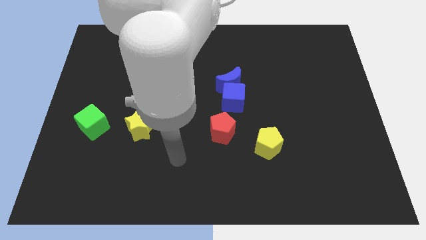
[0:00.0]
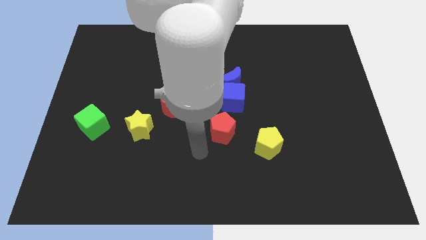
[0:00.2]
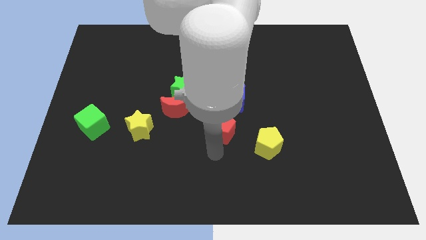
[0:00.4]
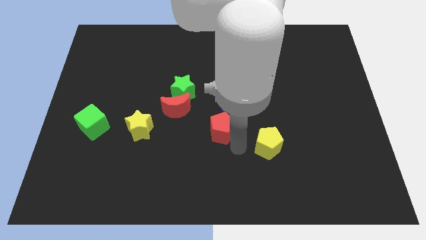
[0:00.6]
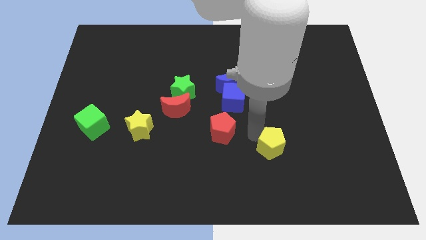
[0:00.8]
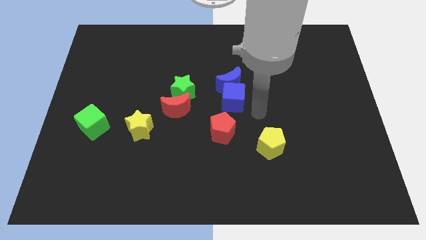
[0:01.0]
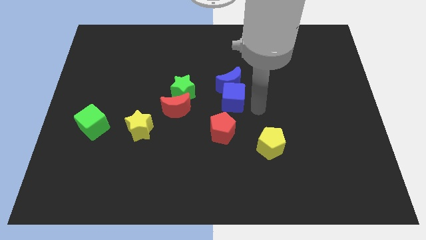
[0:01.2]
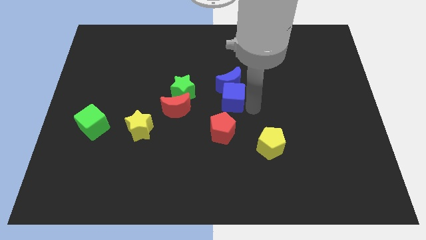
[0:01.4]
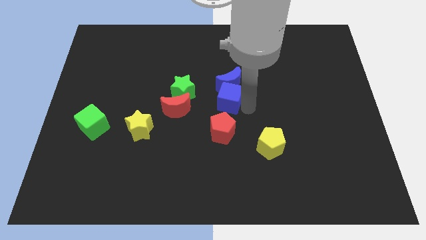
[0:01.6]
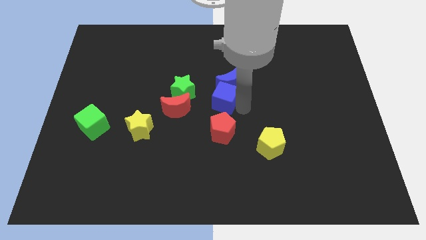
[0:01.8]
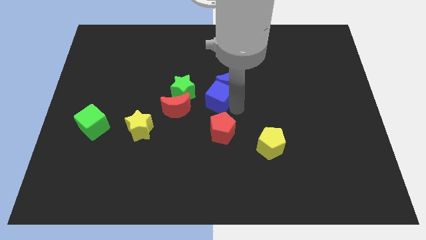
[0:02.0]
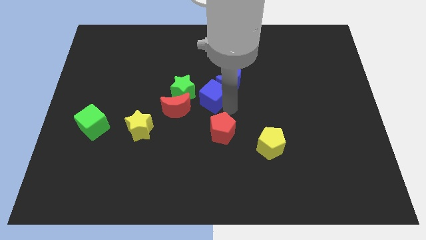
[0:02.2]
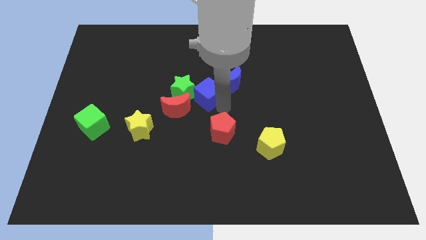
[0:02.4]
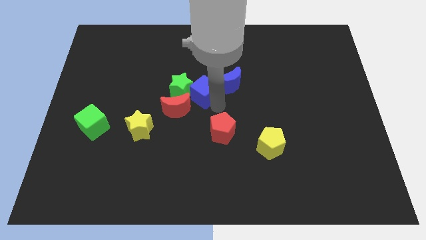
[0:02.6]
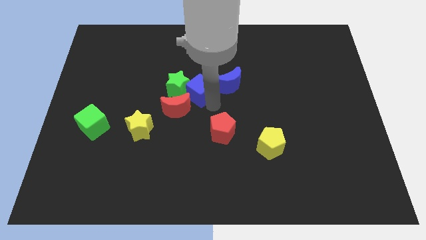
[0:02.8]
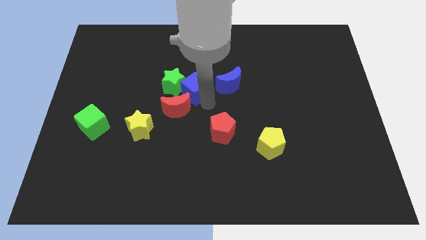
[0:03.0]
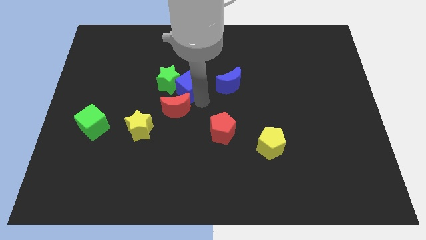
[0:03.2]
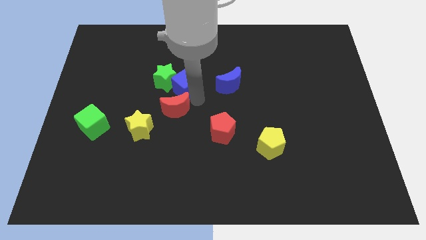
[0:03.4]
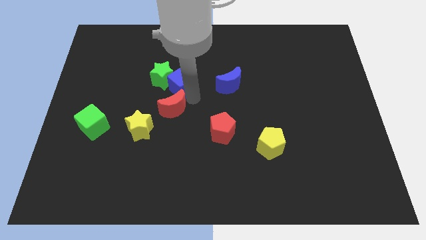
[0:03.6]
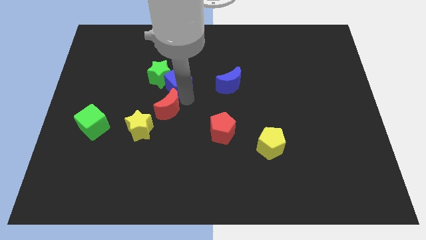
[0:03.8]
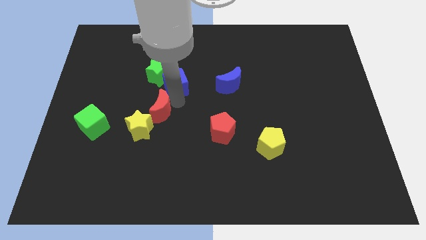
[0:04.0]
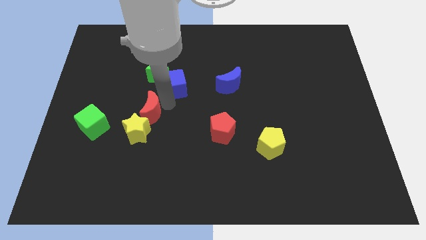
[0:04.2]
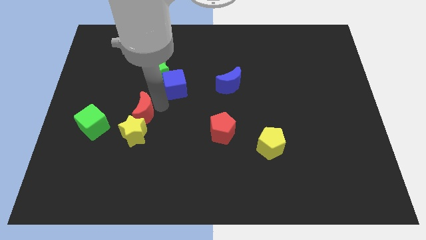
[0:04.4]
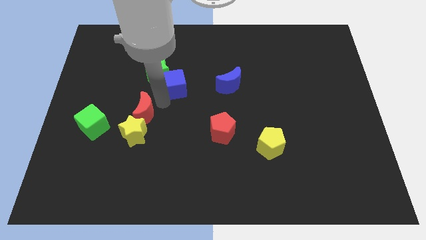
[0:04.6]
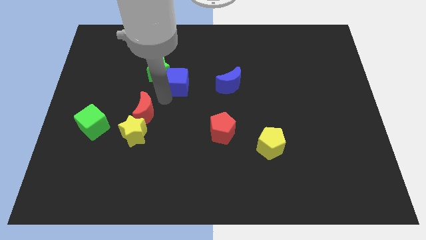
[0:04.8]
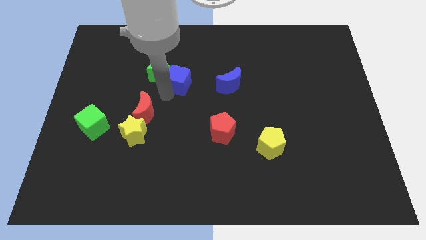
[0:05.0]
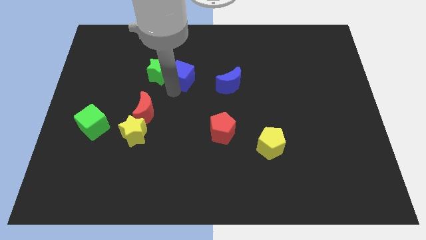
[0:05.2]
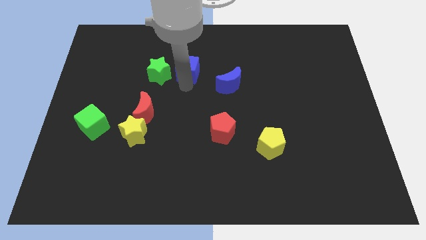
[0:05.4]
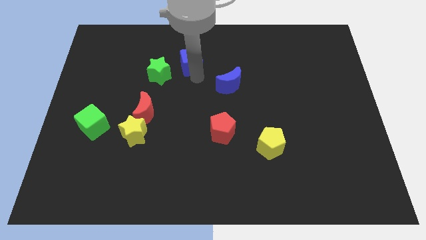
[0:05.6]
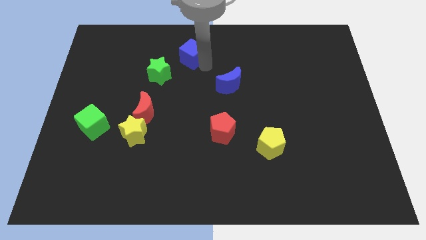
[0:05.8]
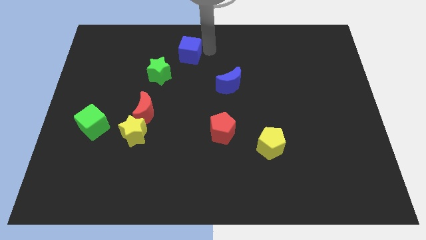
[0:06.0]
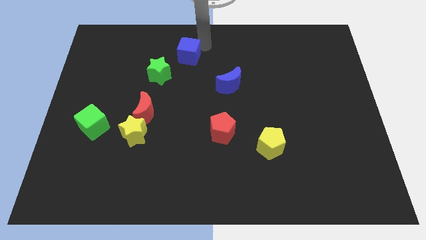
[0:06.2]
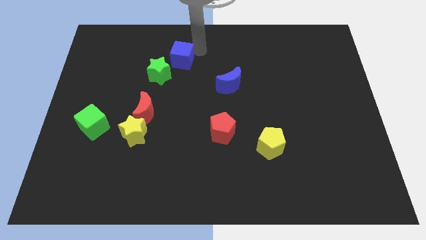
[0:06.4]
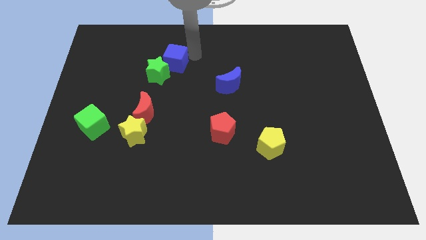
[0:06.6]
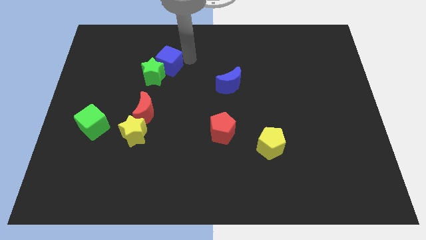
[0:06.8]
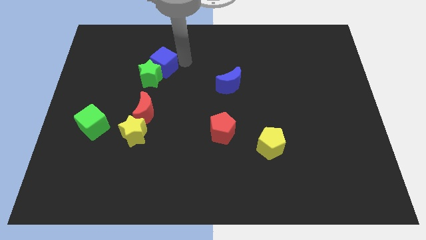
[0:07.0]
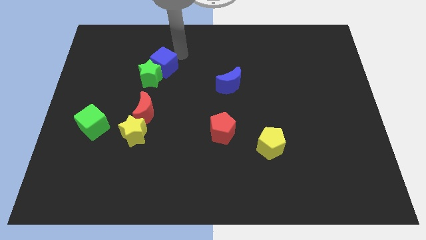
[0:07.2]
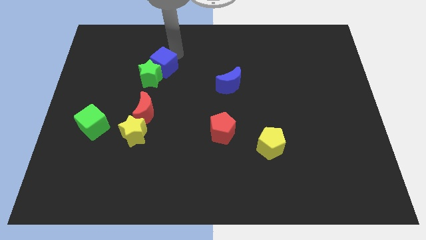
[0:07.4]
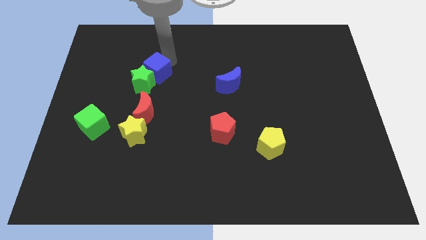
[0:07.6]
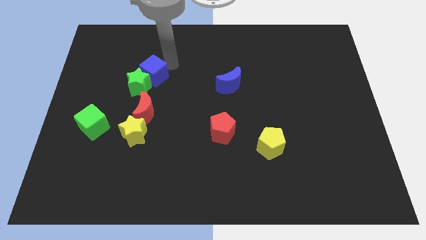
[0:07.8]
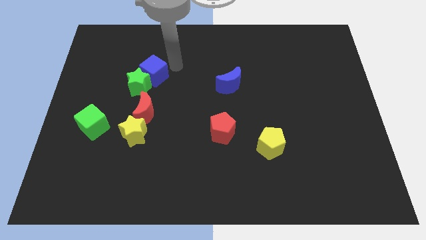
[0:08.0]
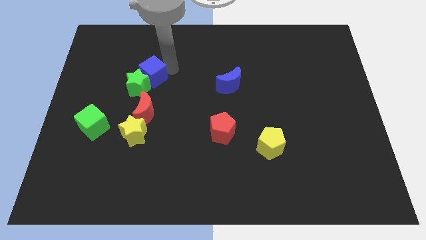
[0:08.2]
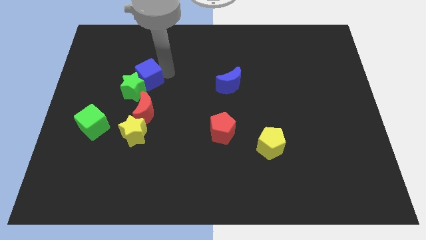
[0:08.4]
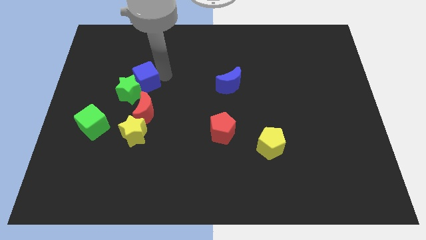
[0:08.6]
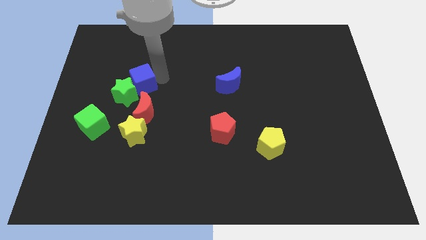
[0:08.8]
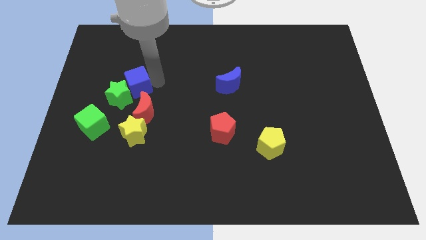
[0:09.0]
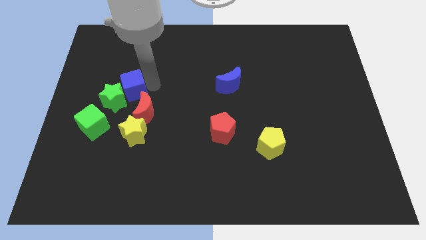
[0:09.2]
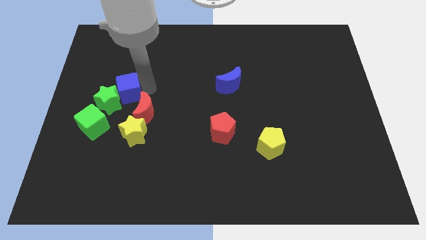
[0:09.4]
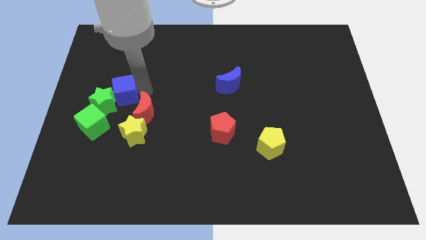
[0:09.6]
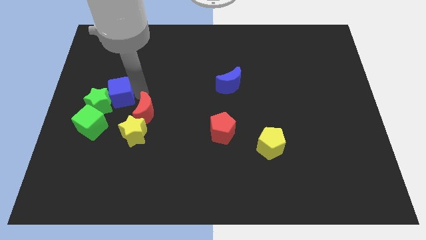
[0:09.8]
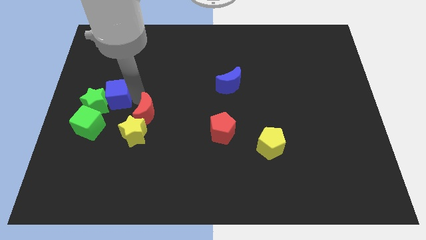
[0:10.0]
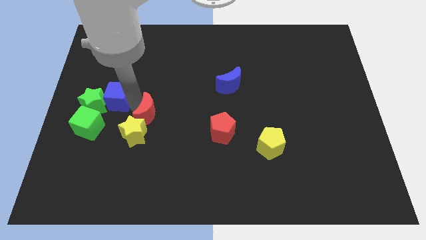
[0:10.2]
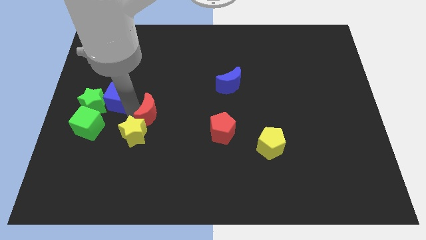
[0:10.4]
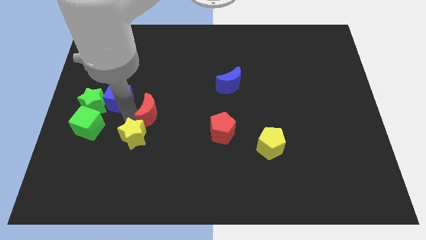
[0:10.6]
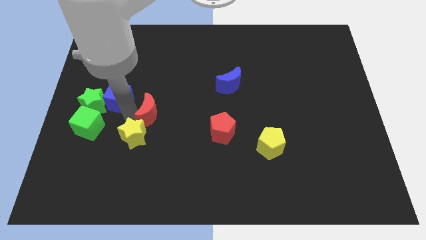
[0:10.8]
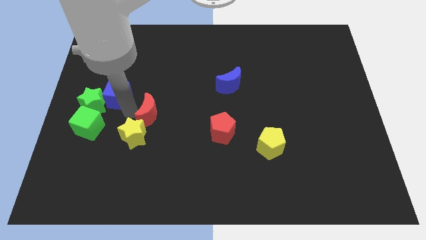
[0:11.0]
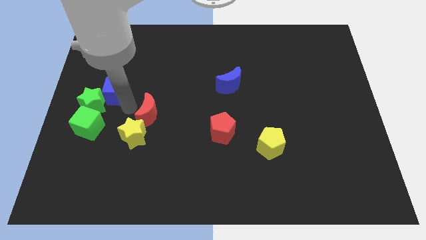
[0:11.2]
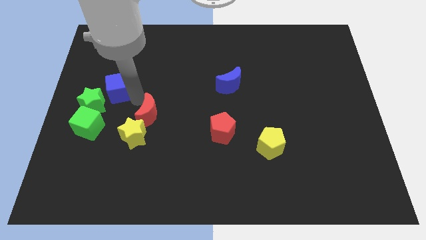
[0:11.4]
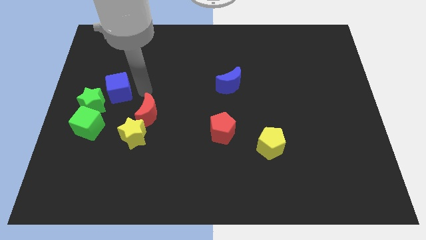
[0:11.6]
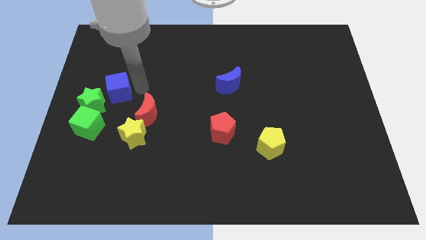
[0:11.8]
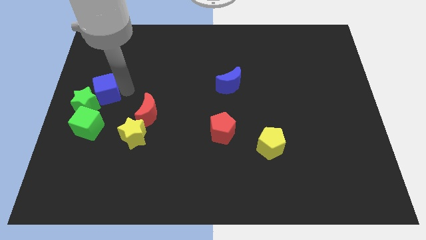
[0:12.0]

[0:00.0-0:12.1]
slide the blue cube to the center left

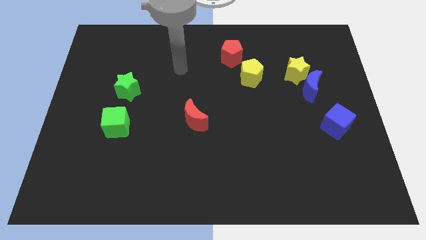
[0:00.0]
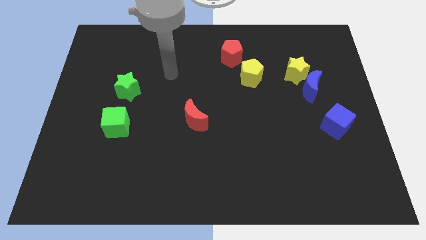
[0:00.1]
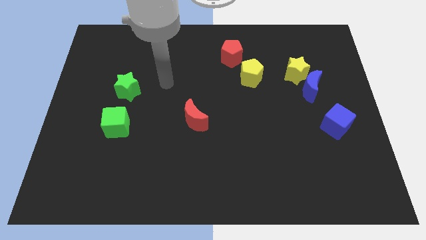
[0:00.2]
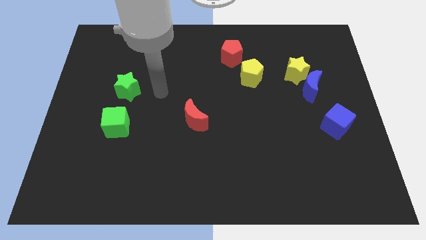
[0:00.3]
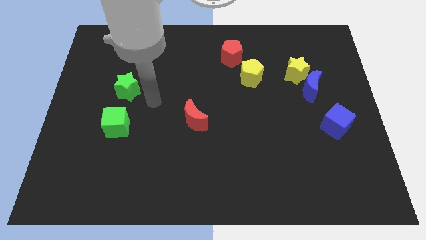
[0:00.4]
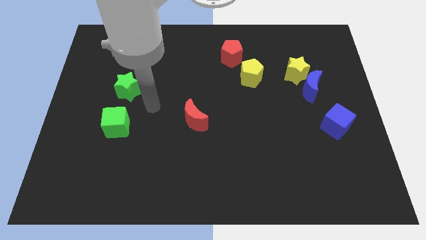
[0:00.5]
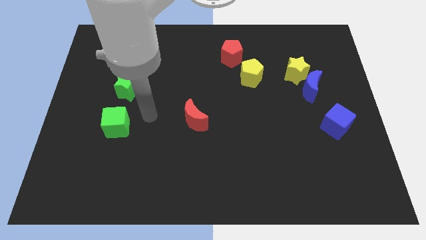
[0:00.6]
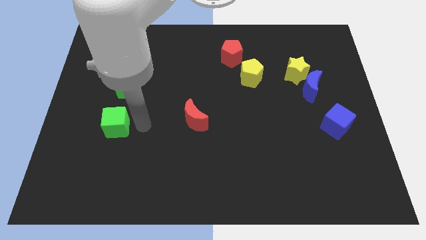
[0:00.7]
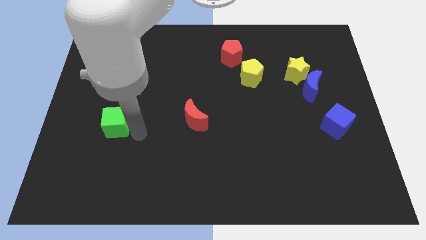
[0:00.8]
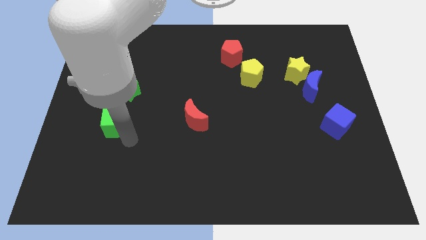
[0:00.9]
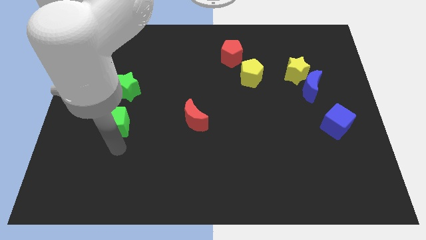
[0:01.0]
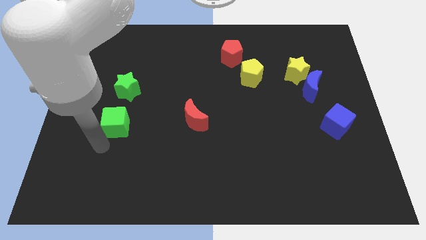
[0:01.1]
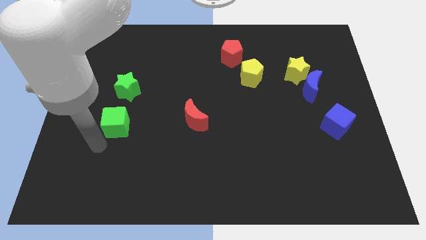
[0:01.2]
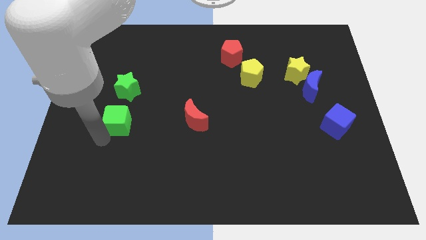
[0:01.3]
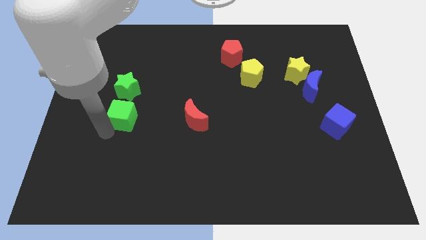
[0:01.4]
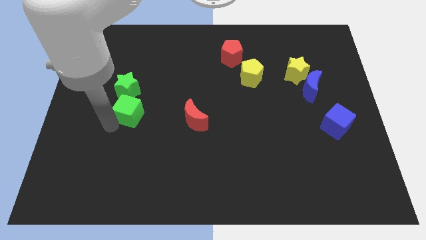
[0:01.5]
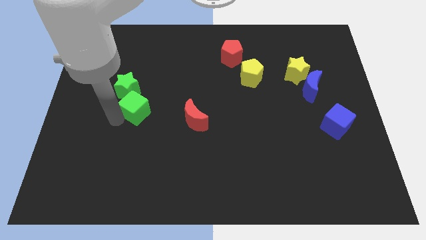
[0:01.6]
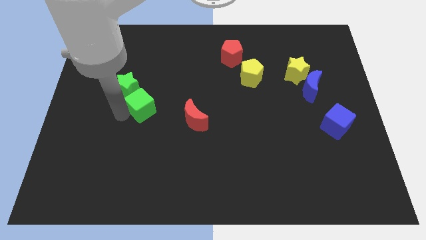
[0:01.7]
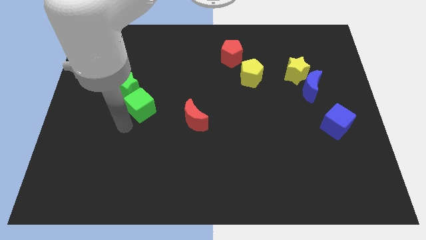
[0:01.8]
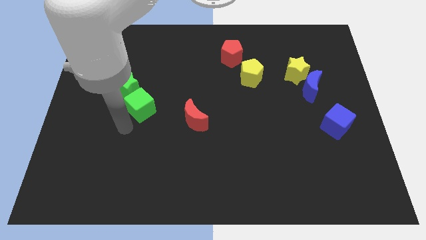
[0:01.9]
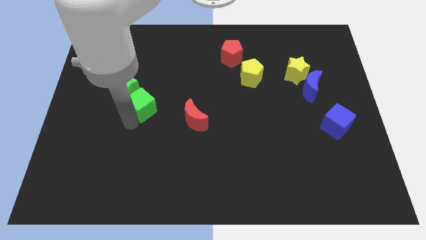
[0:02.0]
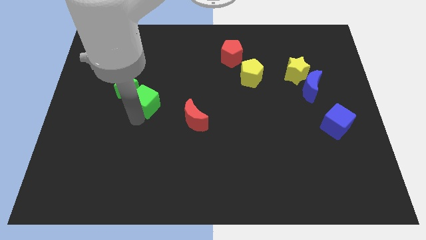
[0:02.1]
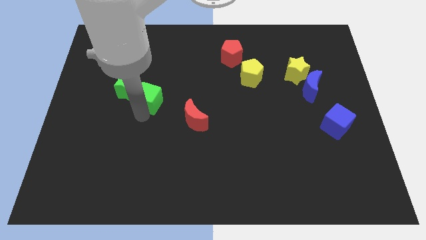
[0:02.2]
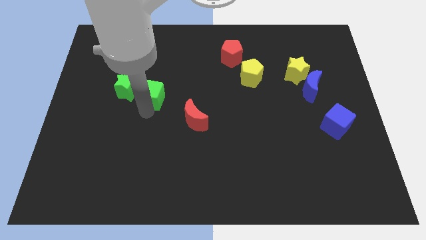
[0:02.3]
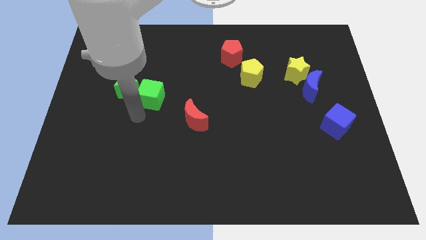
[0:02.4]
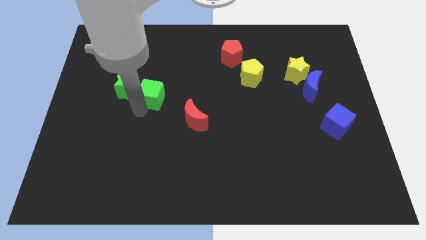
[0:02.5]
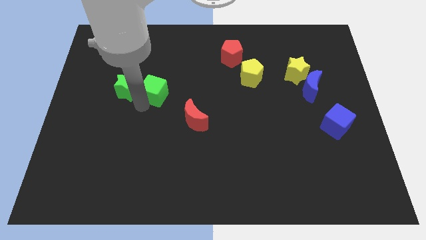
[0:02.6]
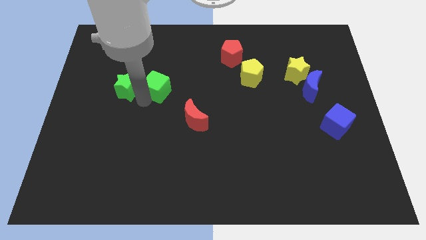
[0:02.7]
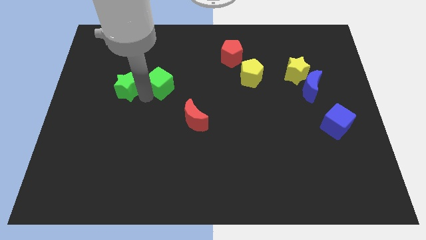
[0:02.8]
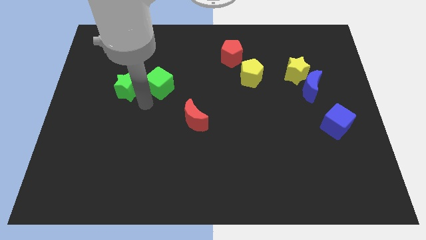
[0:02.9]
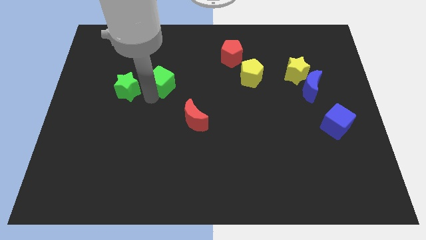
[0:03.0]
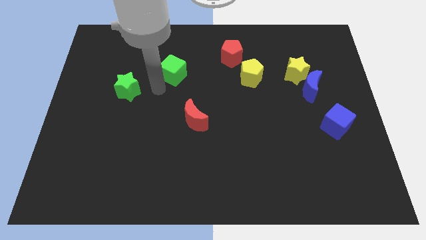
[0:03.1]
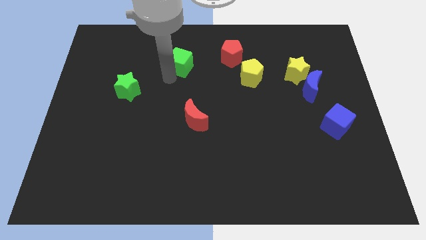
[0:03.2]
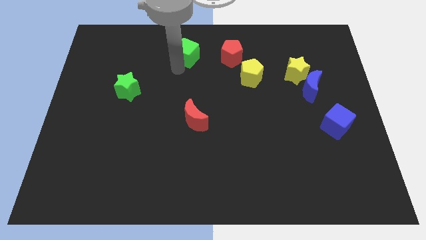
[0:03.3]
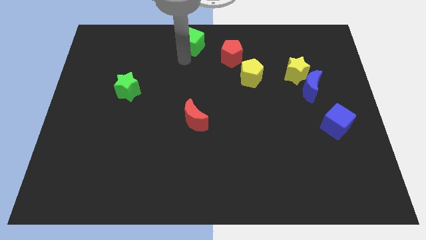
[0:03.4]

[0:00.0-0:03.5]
push the green cube to the top side
